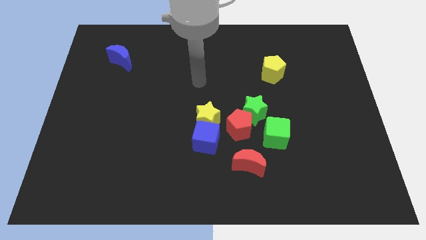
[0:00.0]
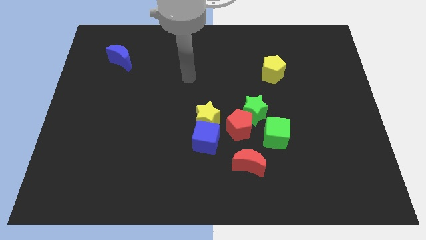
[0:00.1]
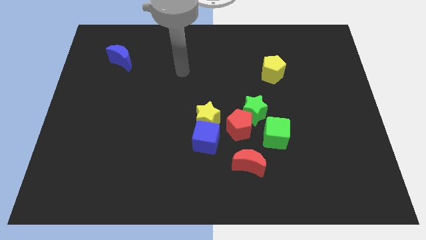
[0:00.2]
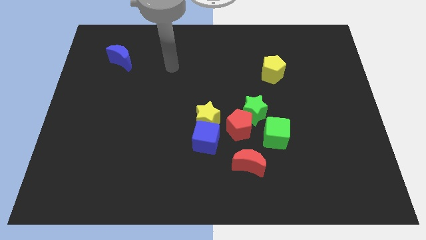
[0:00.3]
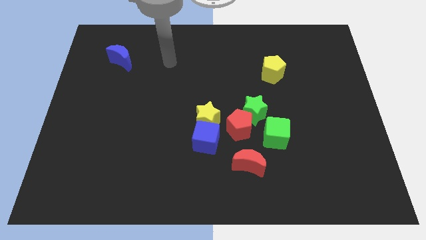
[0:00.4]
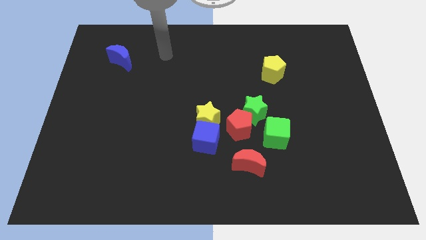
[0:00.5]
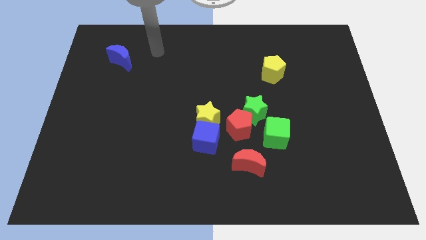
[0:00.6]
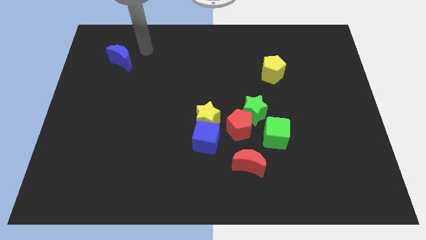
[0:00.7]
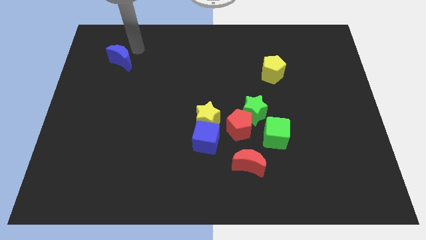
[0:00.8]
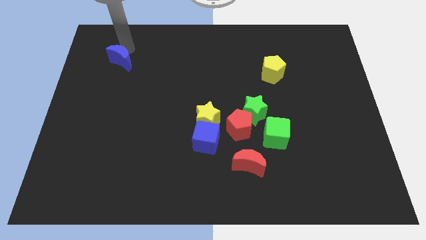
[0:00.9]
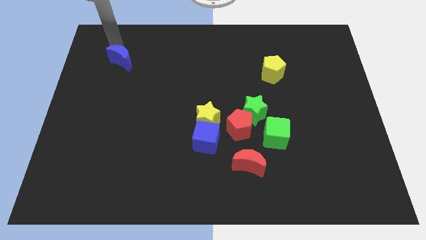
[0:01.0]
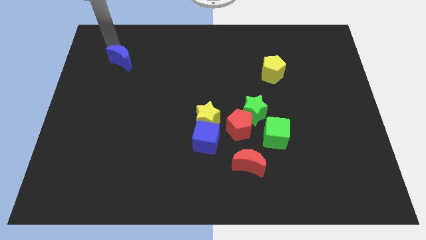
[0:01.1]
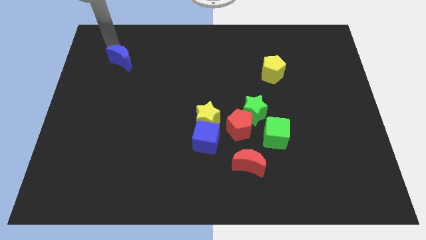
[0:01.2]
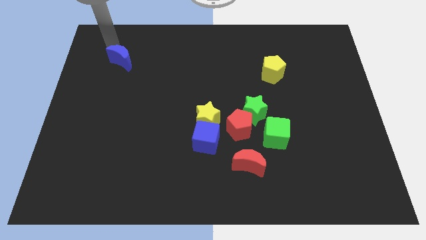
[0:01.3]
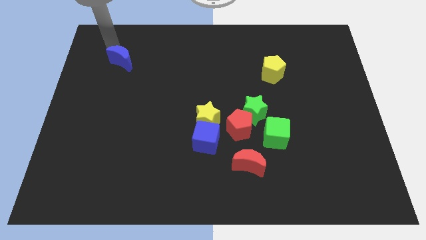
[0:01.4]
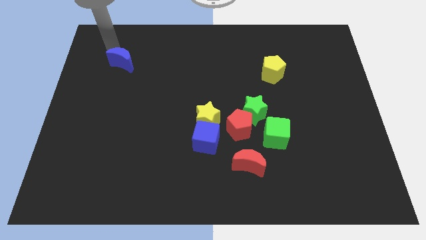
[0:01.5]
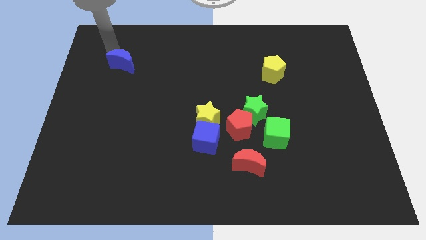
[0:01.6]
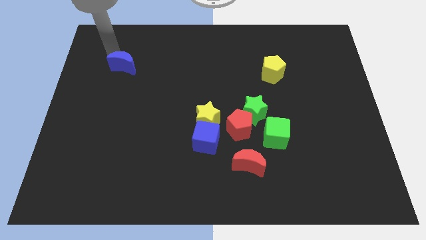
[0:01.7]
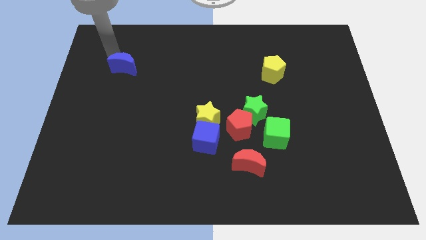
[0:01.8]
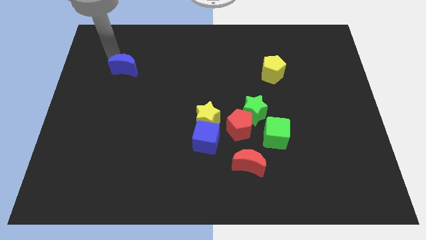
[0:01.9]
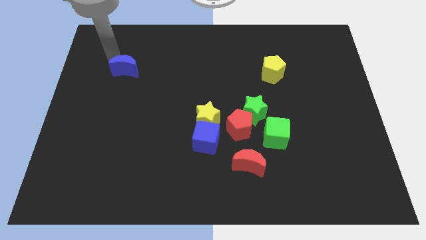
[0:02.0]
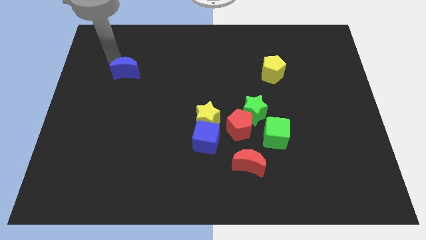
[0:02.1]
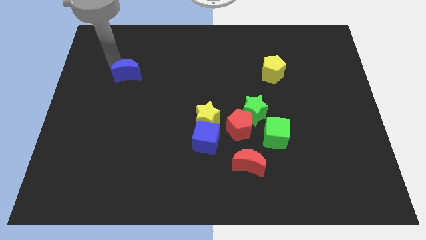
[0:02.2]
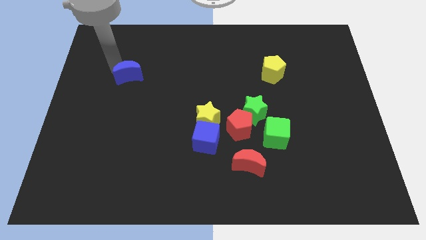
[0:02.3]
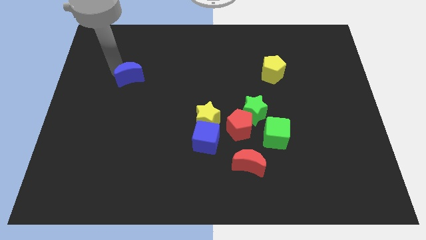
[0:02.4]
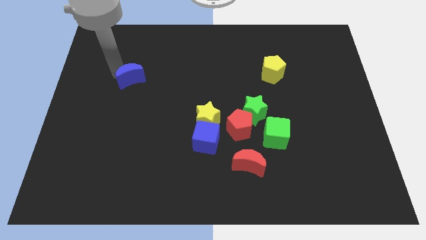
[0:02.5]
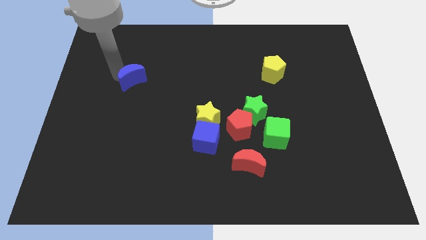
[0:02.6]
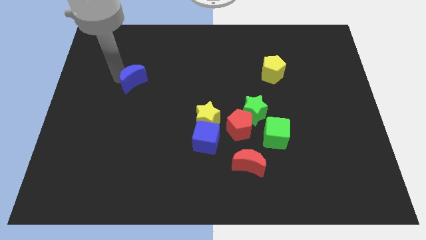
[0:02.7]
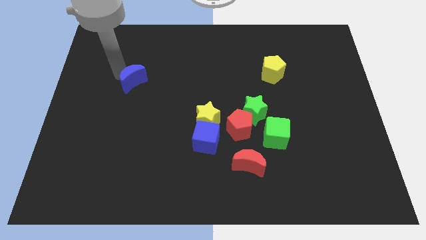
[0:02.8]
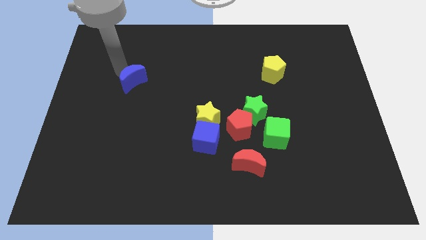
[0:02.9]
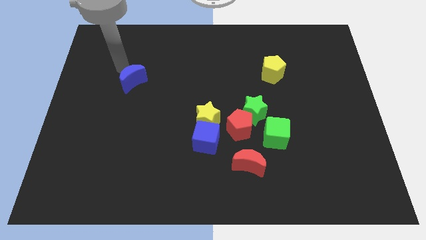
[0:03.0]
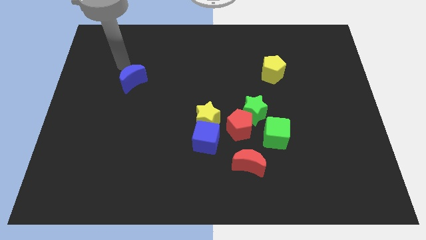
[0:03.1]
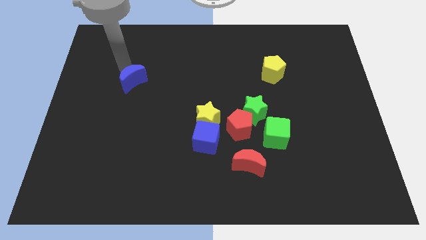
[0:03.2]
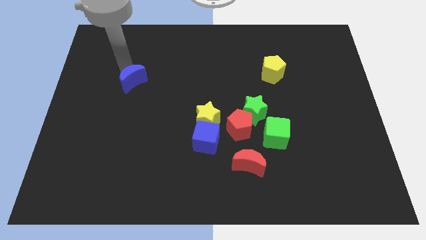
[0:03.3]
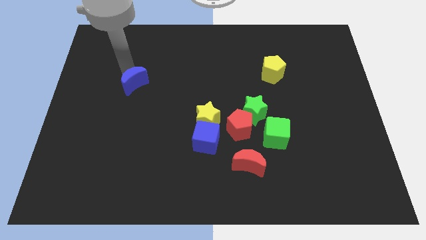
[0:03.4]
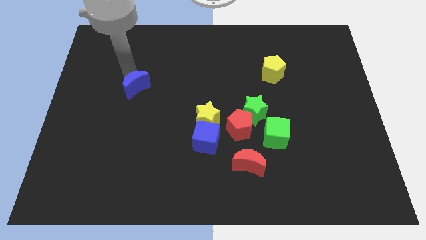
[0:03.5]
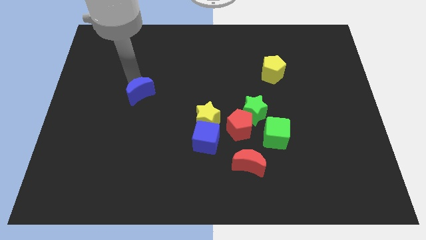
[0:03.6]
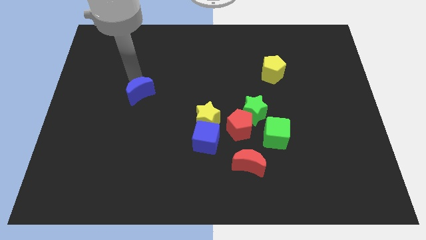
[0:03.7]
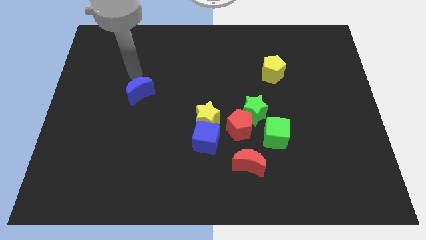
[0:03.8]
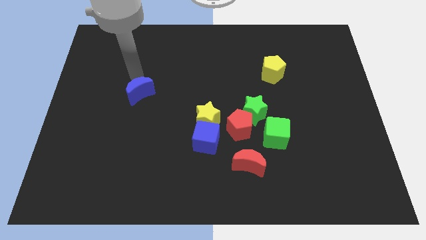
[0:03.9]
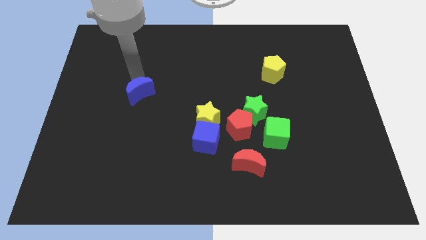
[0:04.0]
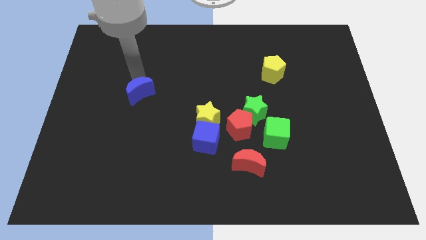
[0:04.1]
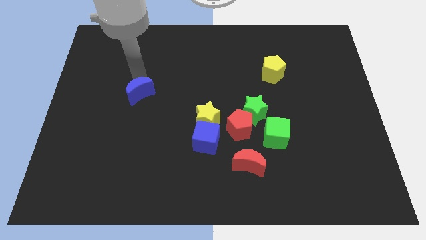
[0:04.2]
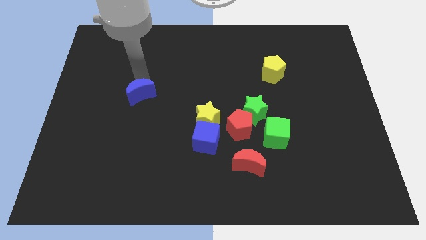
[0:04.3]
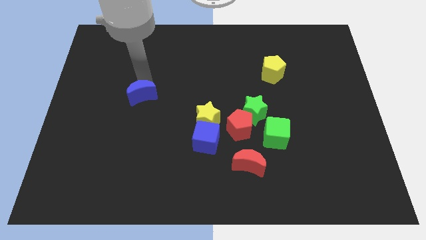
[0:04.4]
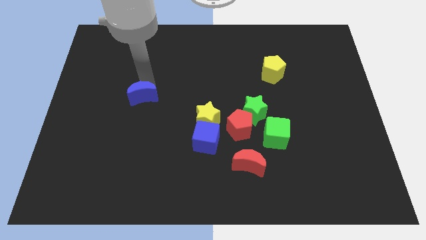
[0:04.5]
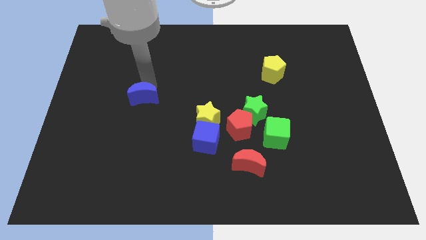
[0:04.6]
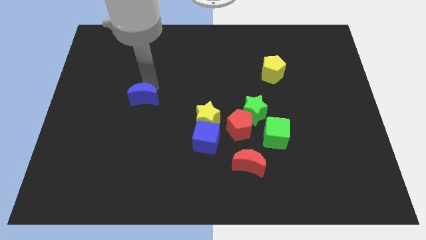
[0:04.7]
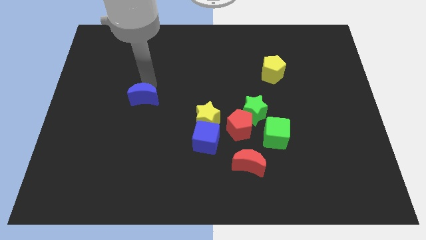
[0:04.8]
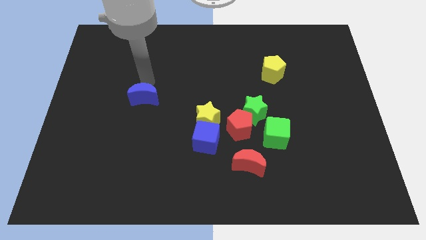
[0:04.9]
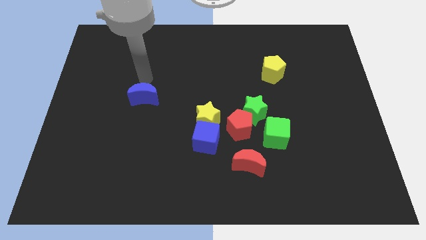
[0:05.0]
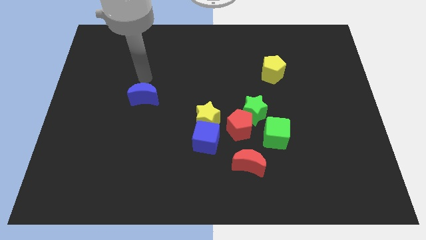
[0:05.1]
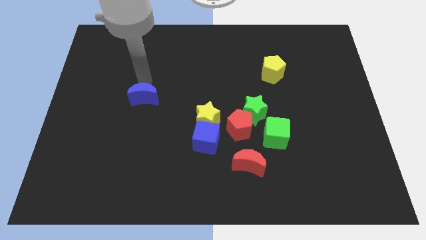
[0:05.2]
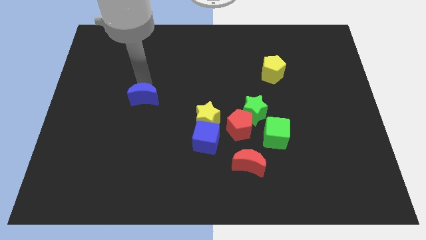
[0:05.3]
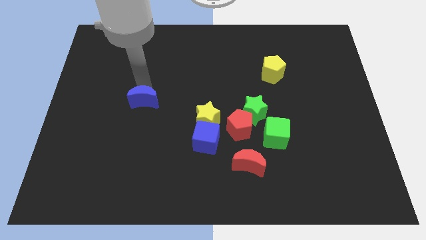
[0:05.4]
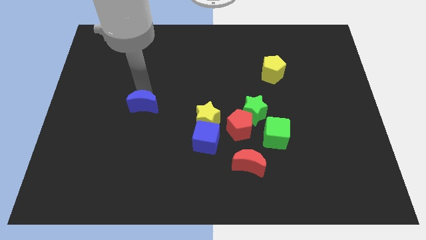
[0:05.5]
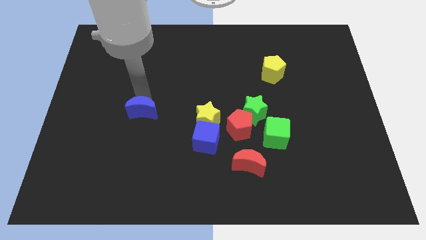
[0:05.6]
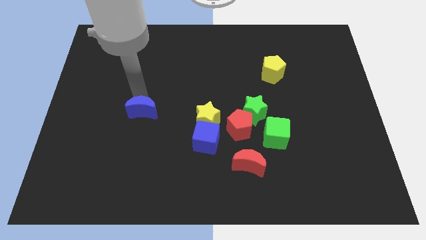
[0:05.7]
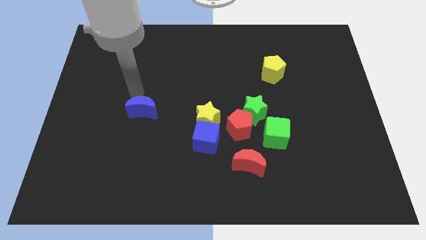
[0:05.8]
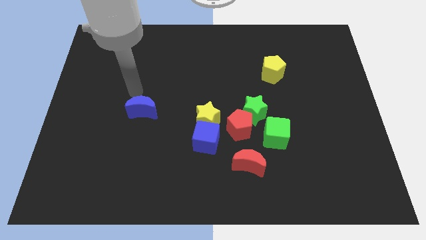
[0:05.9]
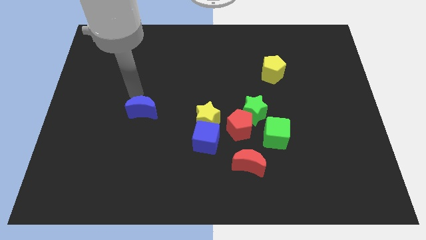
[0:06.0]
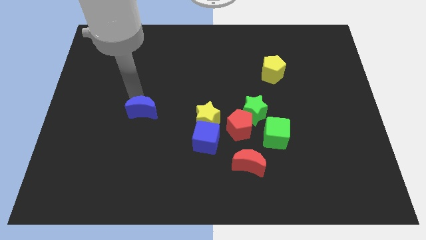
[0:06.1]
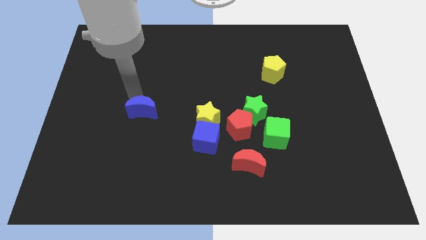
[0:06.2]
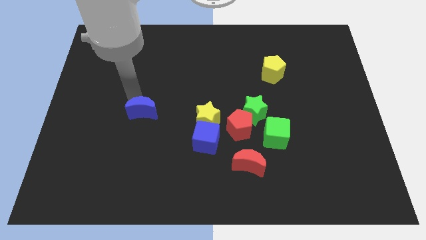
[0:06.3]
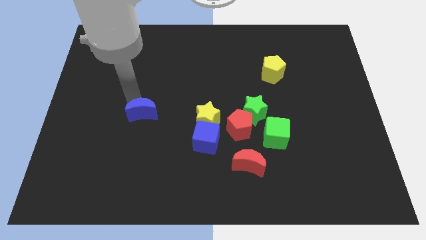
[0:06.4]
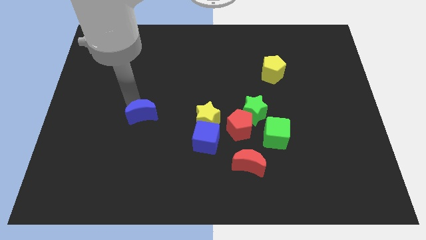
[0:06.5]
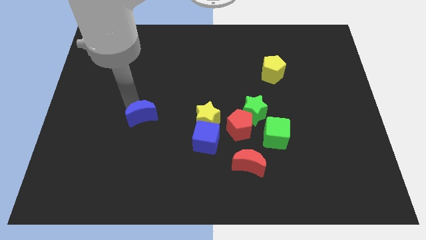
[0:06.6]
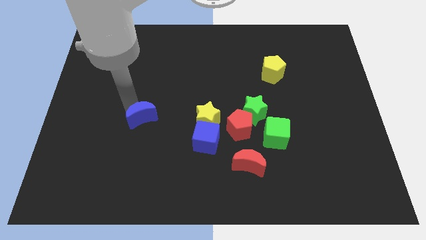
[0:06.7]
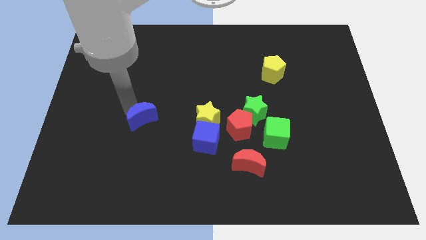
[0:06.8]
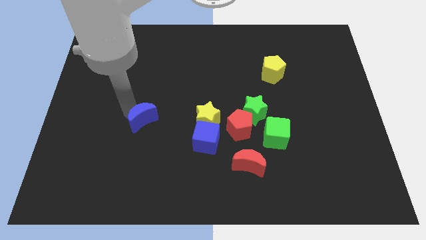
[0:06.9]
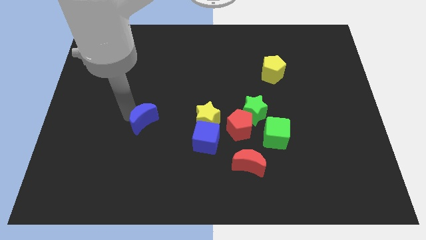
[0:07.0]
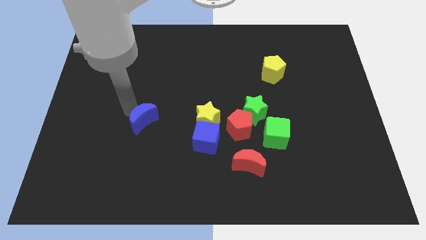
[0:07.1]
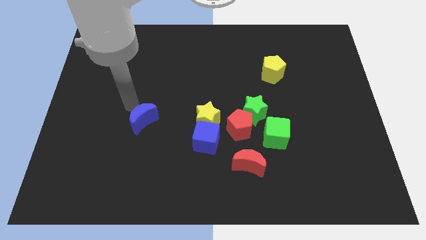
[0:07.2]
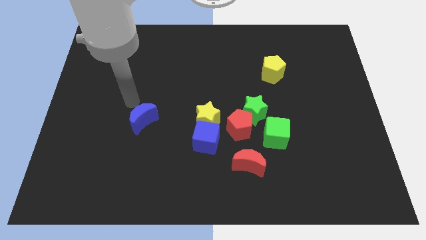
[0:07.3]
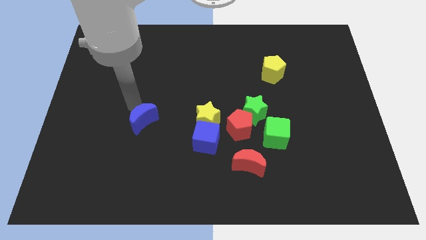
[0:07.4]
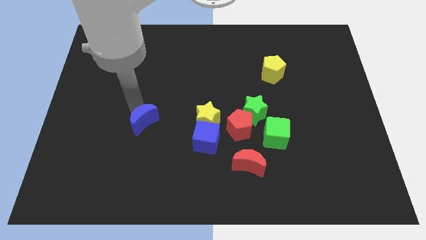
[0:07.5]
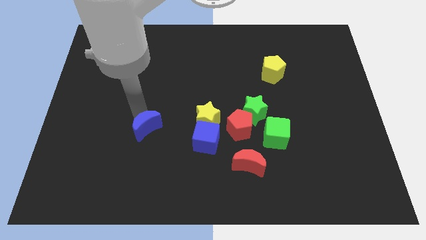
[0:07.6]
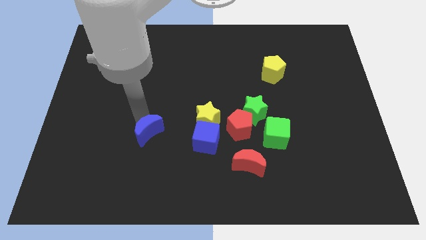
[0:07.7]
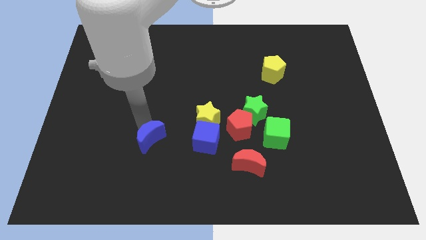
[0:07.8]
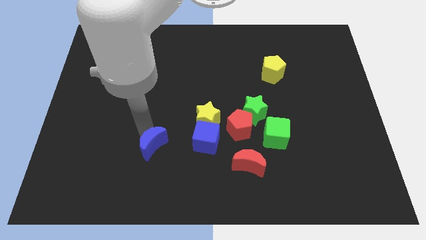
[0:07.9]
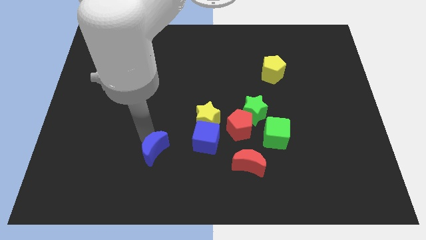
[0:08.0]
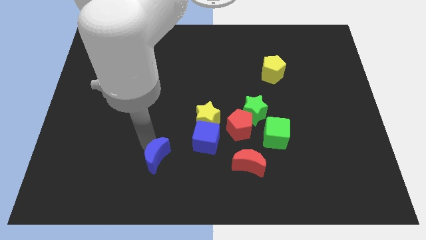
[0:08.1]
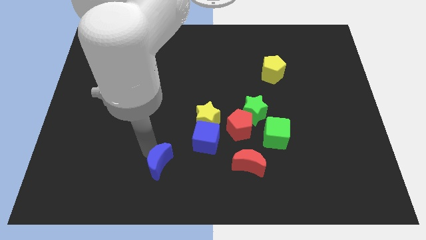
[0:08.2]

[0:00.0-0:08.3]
push the blue moon diagonally down and to the left of the blue cube
